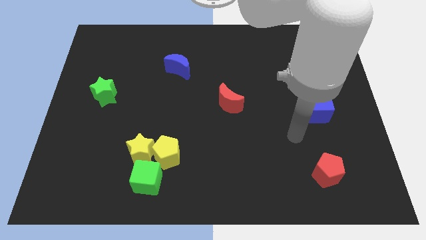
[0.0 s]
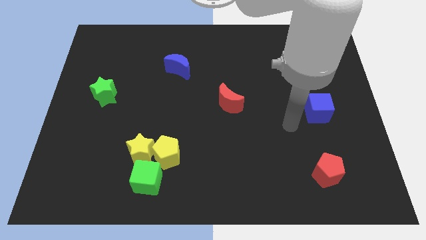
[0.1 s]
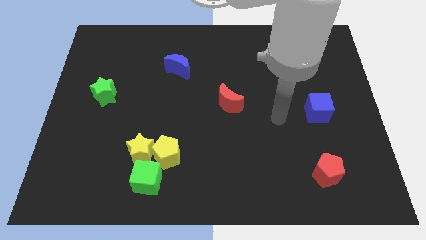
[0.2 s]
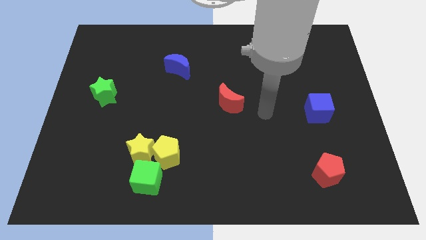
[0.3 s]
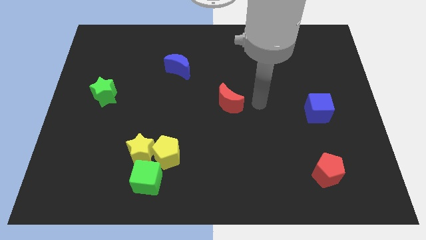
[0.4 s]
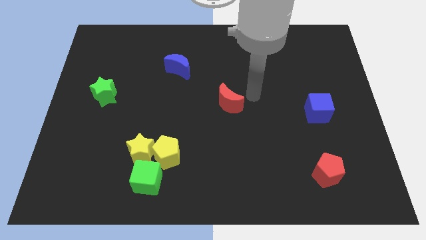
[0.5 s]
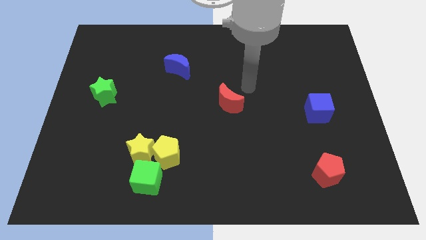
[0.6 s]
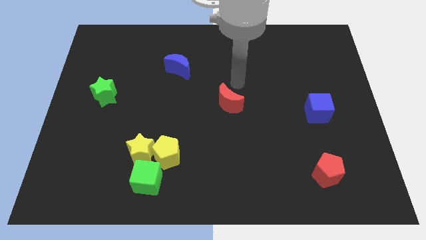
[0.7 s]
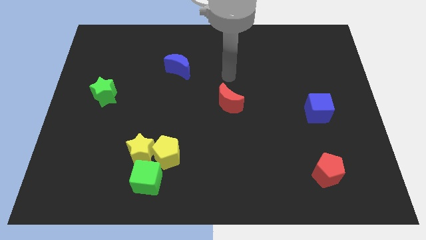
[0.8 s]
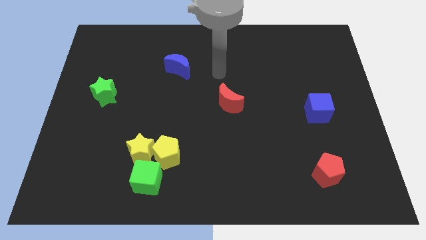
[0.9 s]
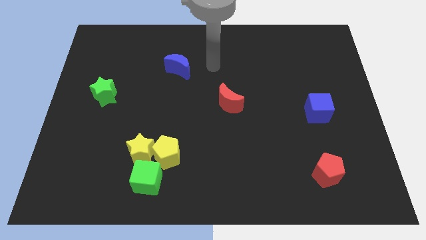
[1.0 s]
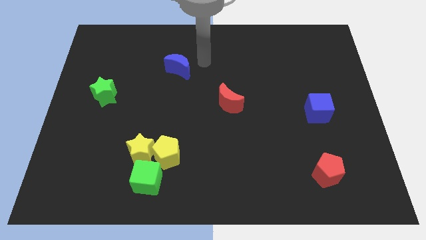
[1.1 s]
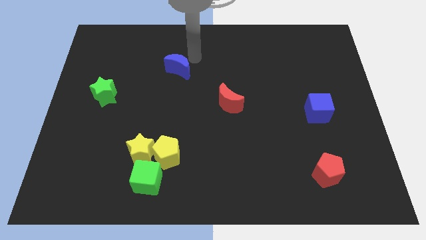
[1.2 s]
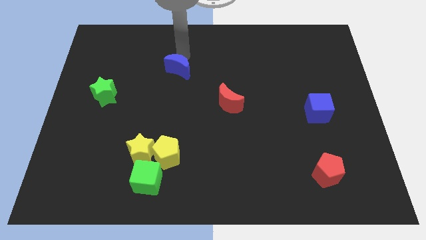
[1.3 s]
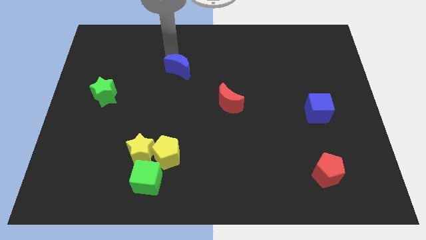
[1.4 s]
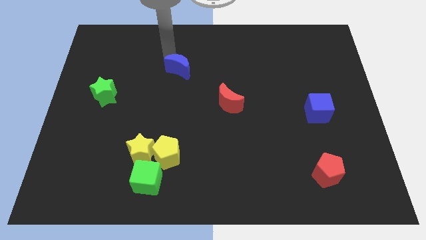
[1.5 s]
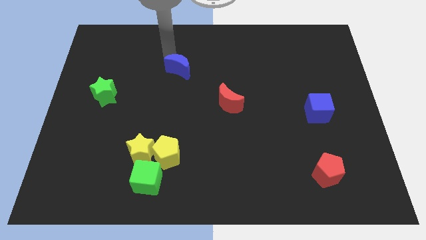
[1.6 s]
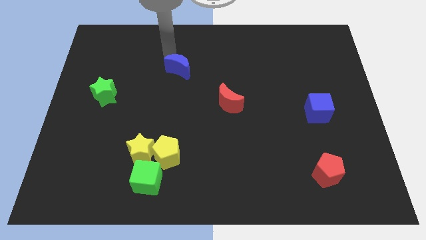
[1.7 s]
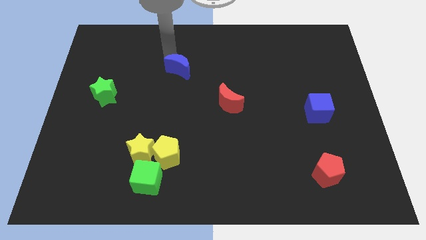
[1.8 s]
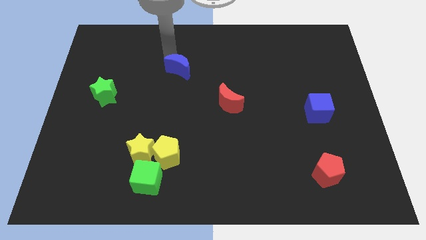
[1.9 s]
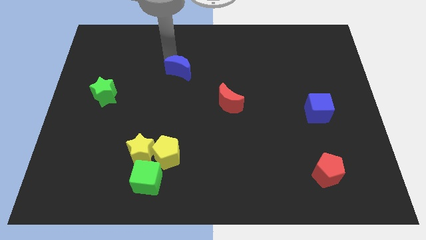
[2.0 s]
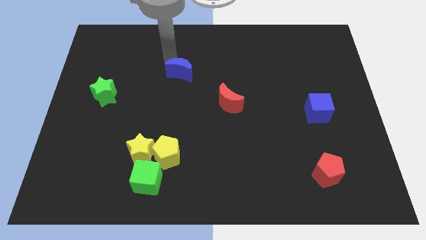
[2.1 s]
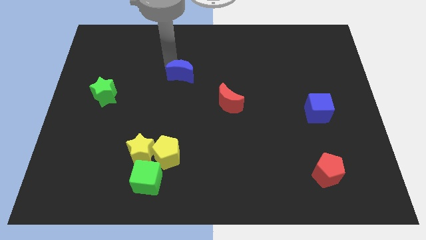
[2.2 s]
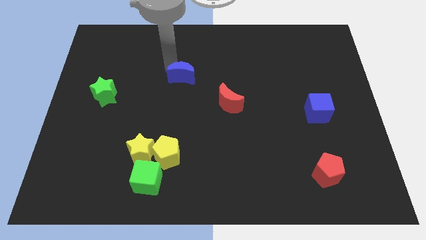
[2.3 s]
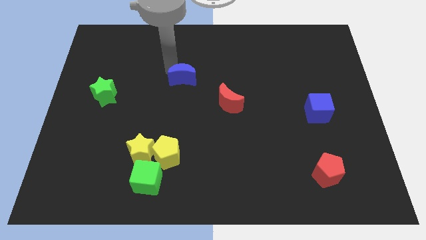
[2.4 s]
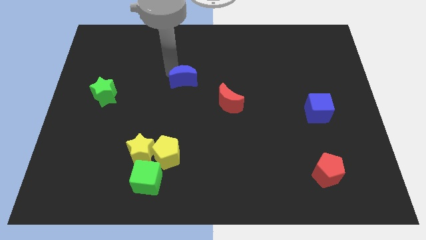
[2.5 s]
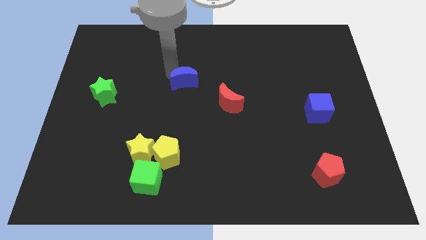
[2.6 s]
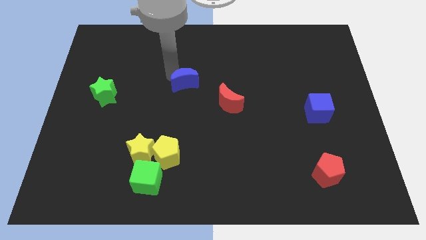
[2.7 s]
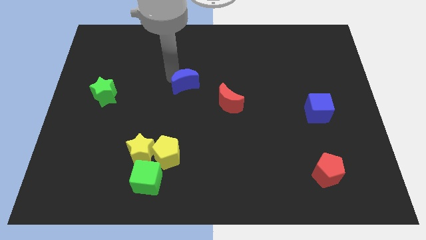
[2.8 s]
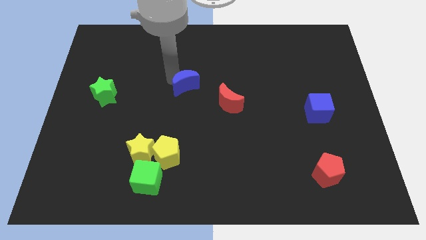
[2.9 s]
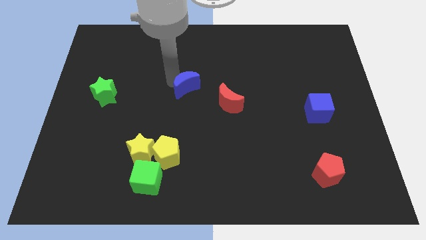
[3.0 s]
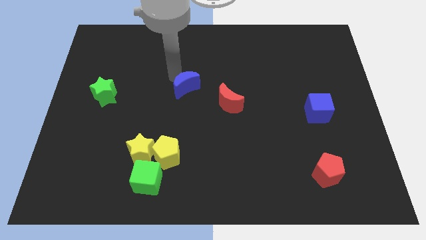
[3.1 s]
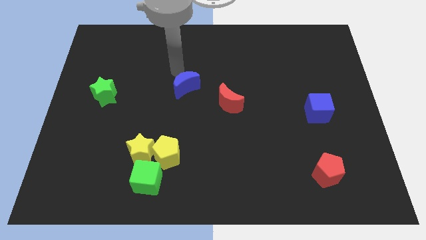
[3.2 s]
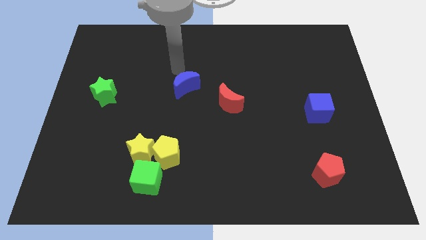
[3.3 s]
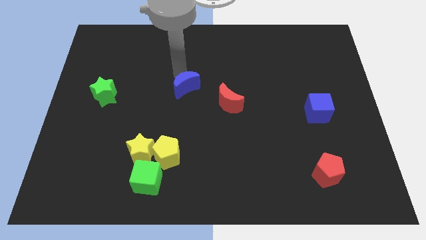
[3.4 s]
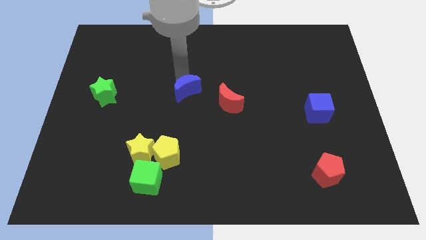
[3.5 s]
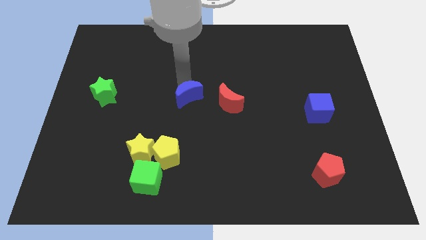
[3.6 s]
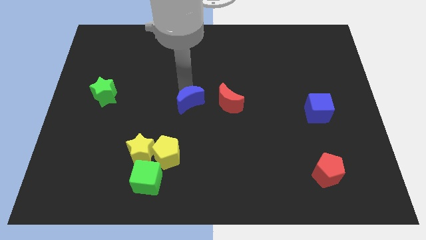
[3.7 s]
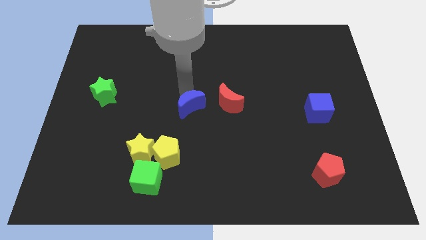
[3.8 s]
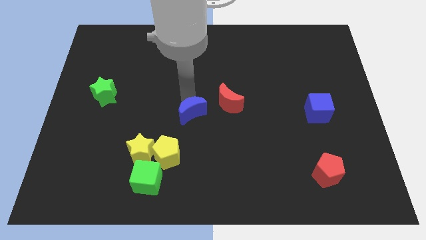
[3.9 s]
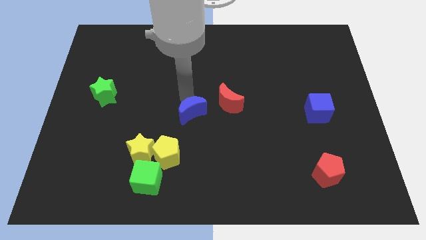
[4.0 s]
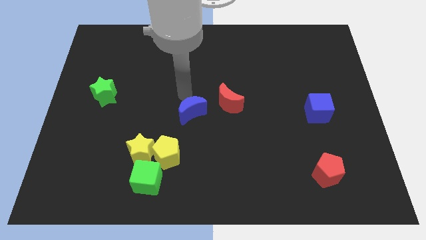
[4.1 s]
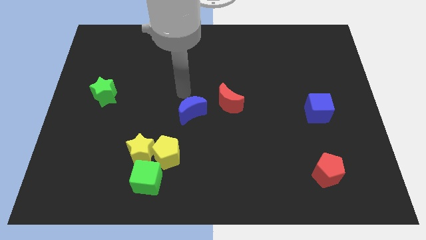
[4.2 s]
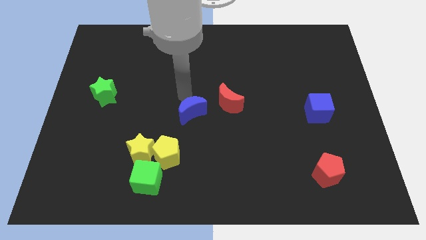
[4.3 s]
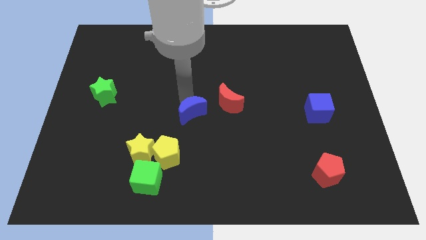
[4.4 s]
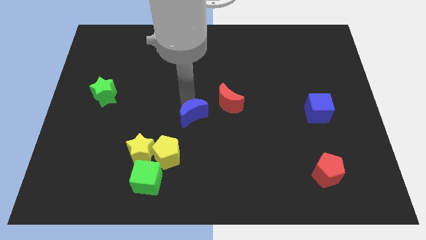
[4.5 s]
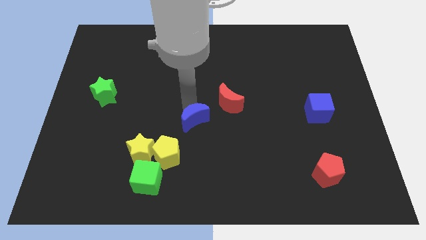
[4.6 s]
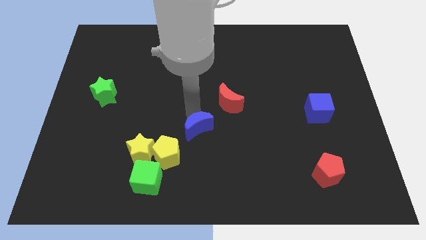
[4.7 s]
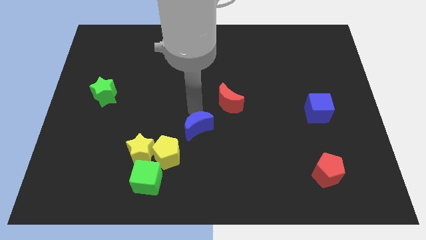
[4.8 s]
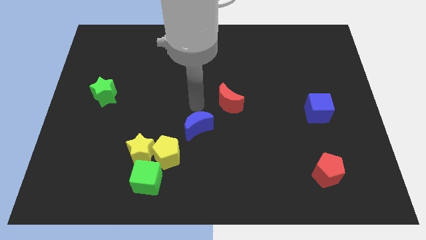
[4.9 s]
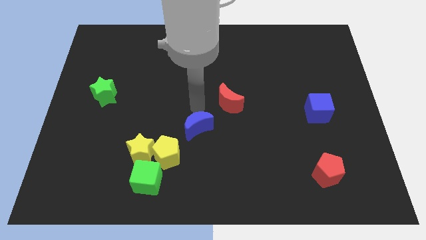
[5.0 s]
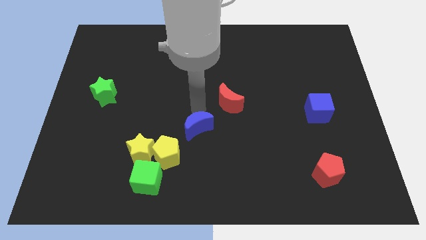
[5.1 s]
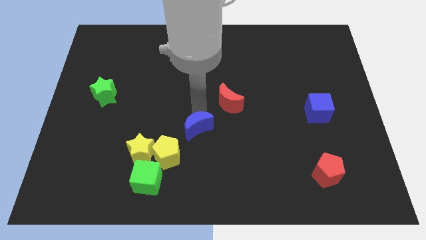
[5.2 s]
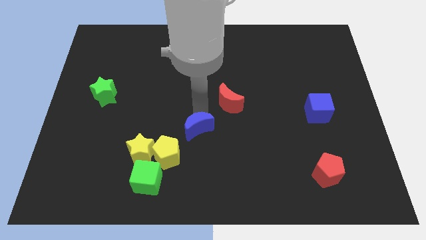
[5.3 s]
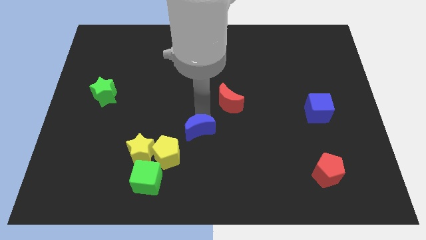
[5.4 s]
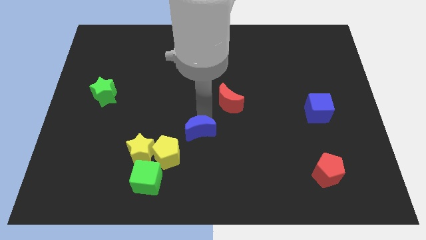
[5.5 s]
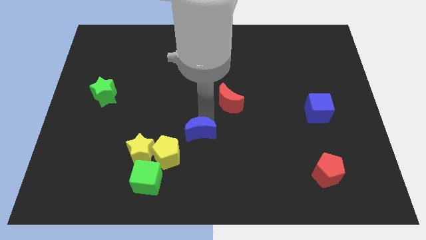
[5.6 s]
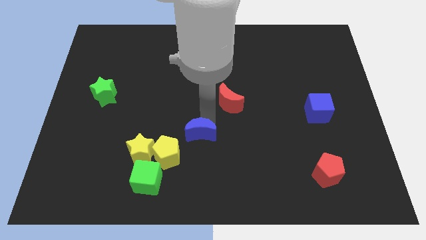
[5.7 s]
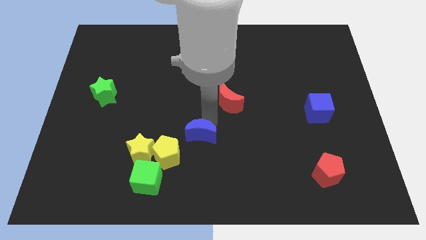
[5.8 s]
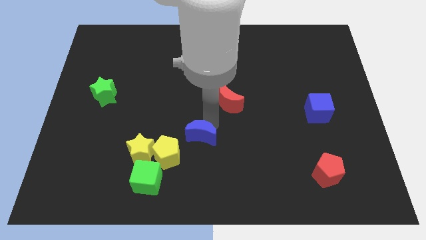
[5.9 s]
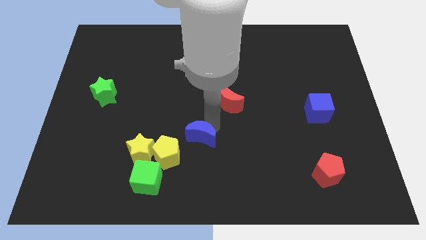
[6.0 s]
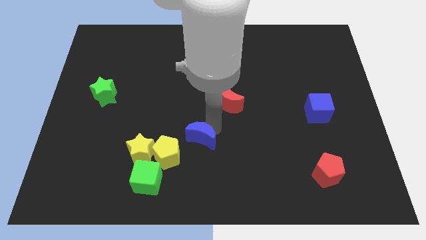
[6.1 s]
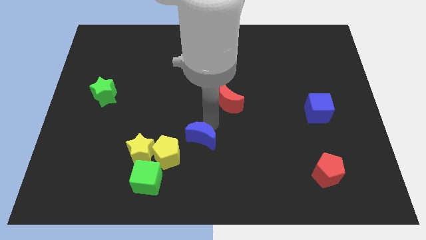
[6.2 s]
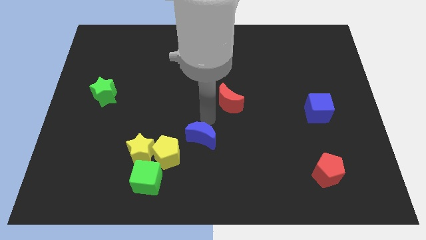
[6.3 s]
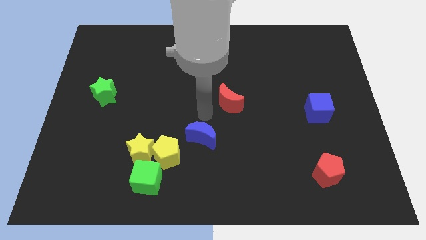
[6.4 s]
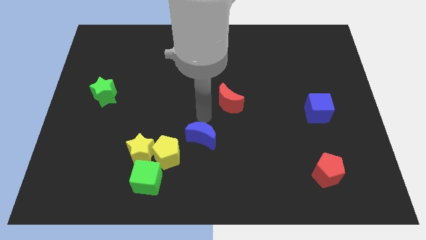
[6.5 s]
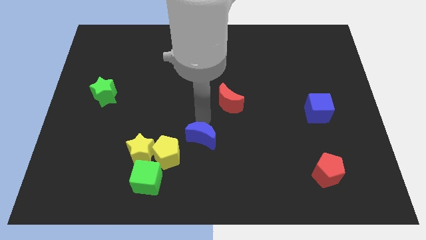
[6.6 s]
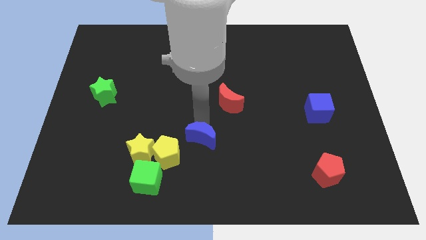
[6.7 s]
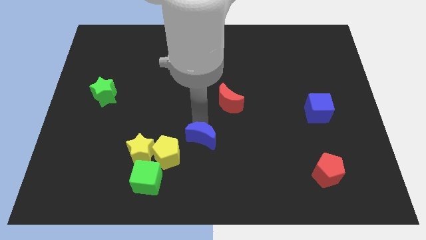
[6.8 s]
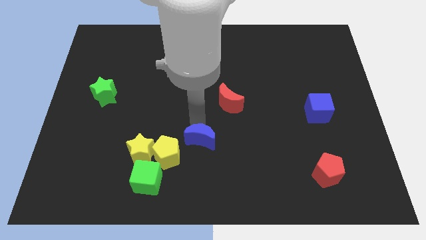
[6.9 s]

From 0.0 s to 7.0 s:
move the blue moon downwards

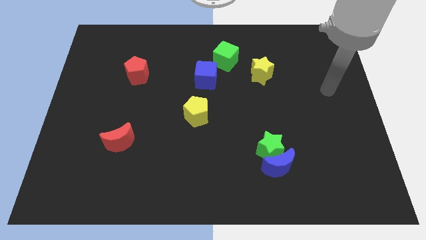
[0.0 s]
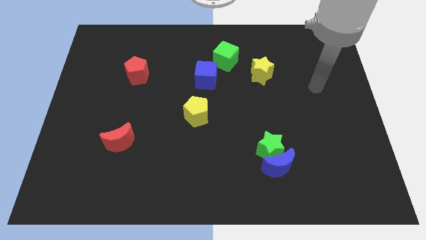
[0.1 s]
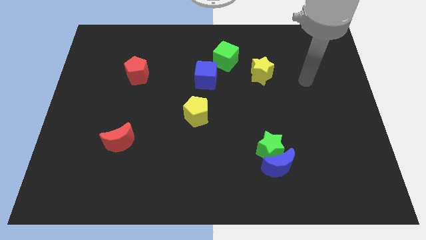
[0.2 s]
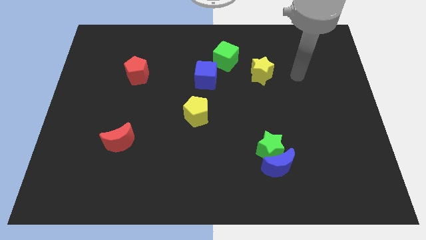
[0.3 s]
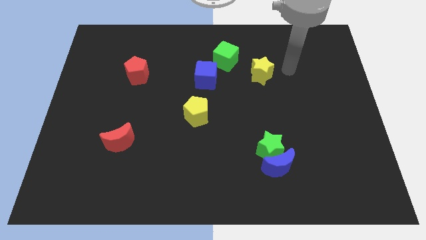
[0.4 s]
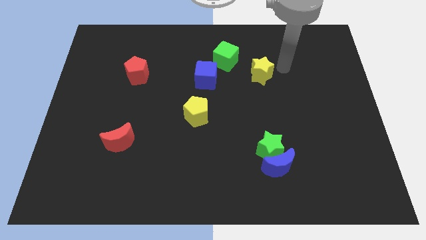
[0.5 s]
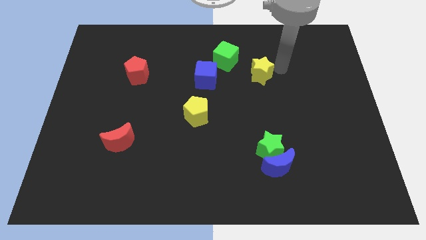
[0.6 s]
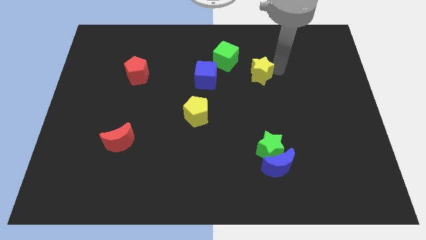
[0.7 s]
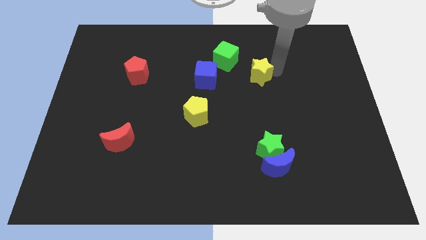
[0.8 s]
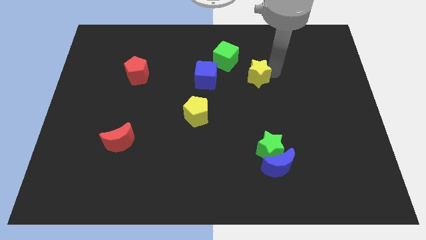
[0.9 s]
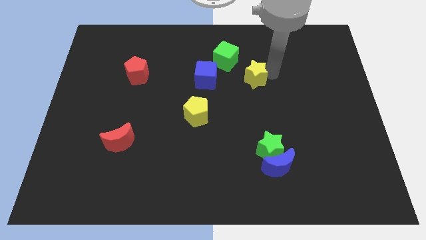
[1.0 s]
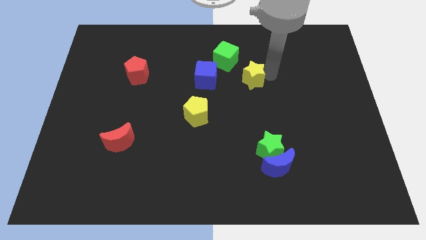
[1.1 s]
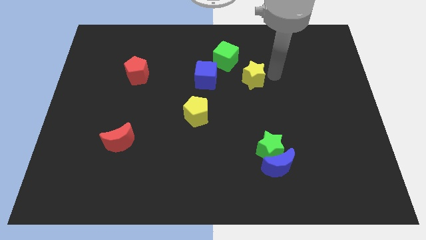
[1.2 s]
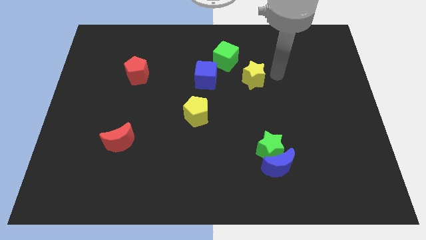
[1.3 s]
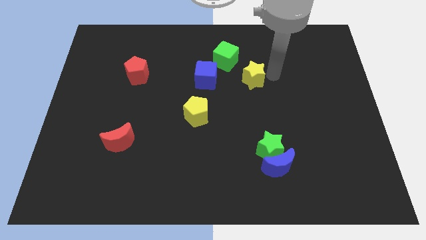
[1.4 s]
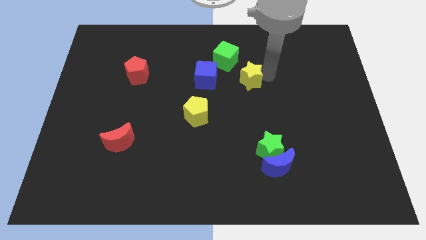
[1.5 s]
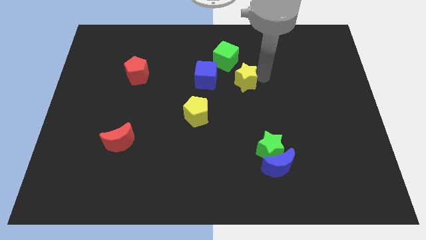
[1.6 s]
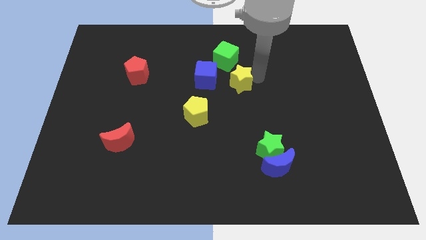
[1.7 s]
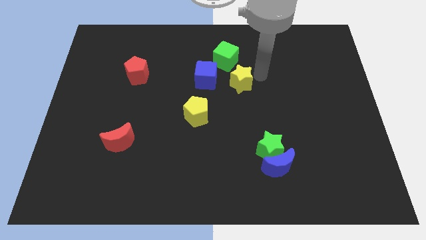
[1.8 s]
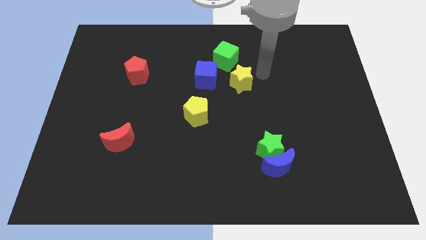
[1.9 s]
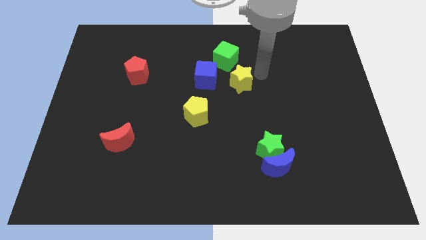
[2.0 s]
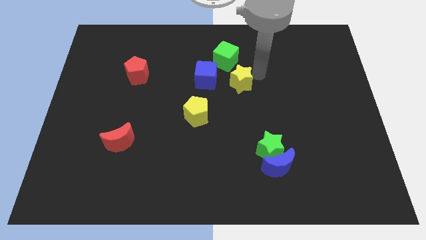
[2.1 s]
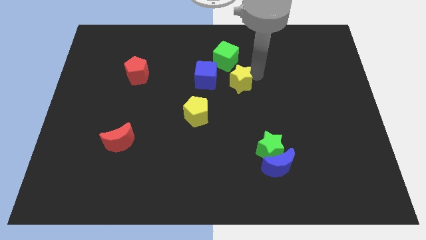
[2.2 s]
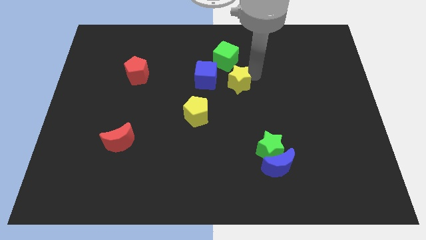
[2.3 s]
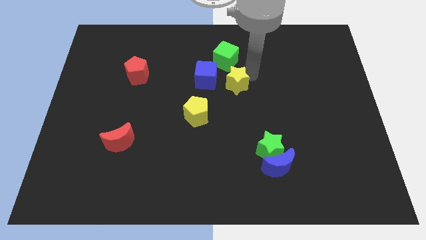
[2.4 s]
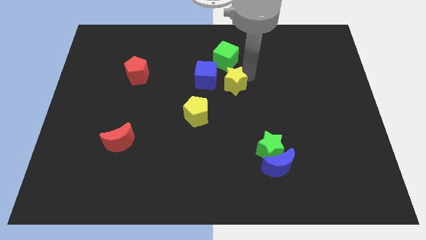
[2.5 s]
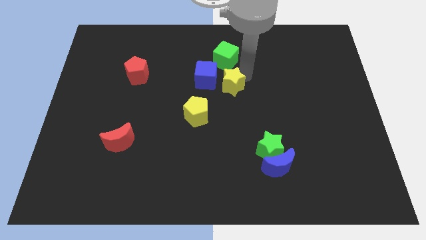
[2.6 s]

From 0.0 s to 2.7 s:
slightly push the yellow star to the left
